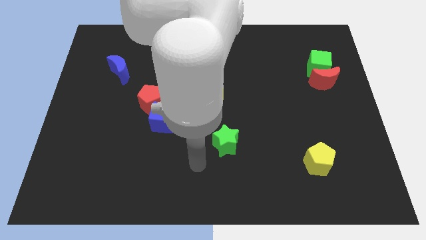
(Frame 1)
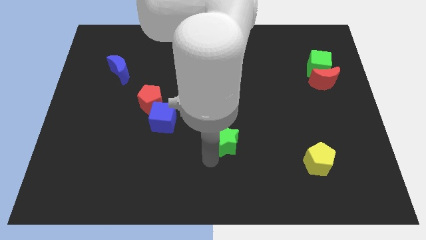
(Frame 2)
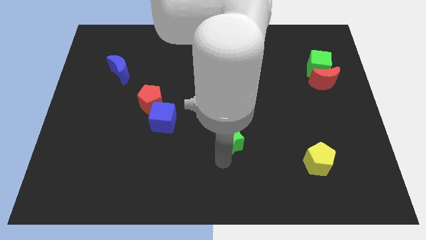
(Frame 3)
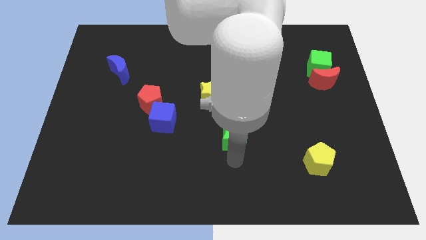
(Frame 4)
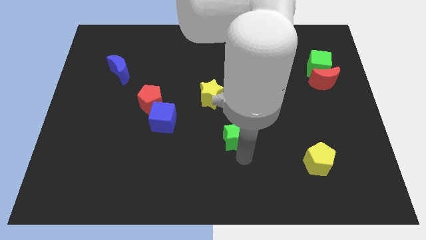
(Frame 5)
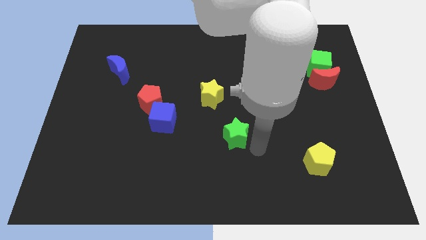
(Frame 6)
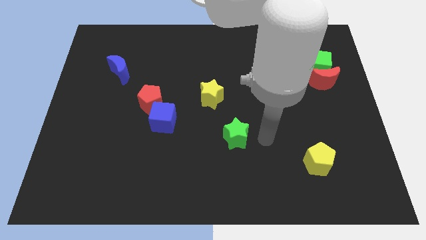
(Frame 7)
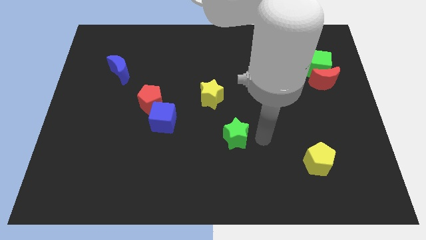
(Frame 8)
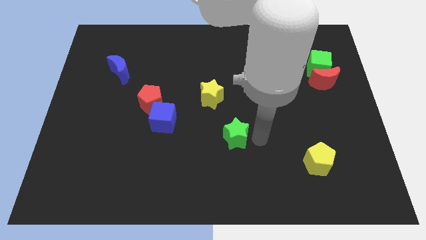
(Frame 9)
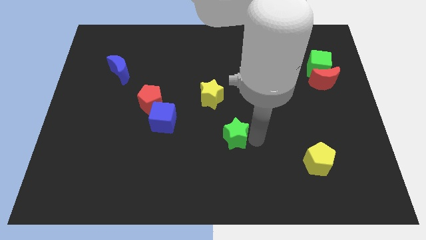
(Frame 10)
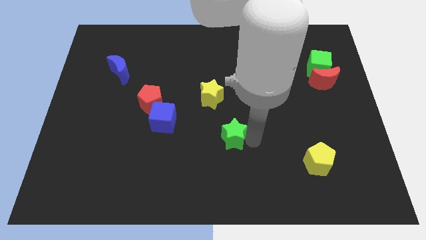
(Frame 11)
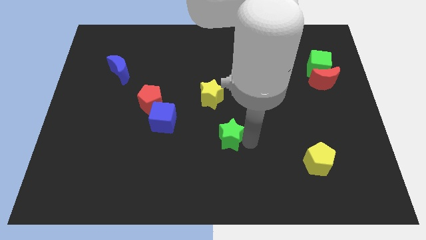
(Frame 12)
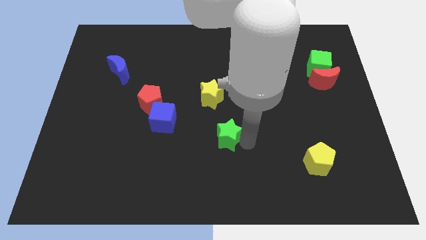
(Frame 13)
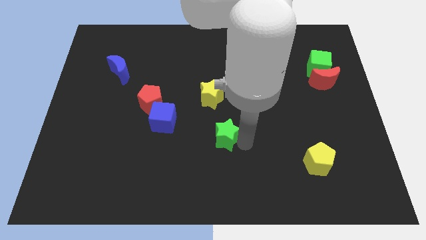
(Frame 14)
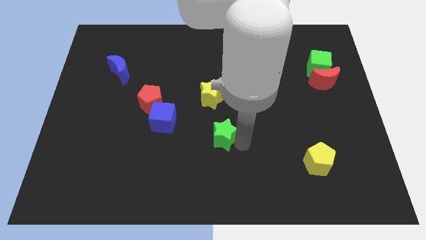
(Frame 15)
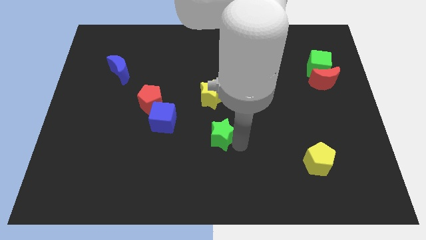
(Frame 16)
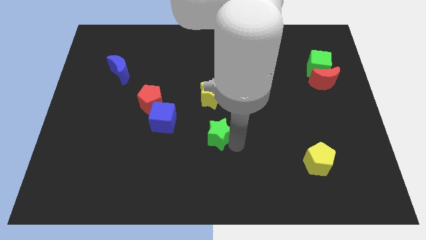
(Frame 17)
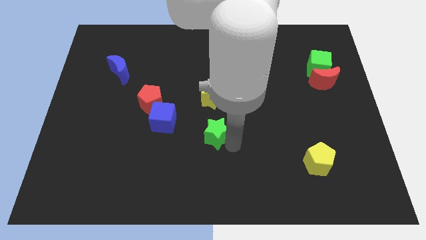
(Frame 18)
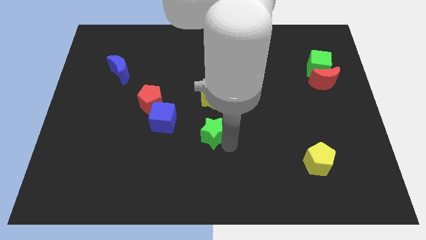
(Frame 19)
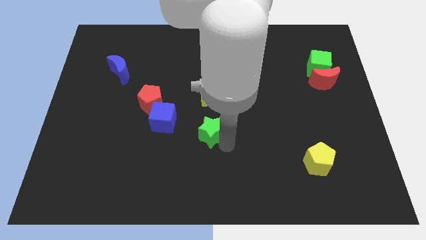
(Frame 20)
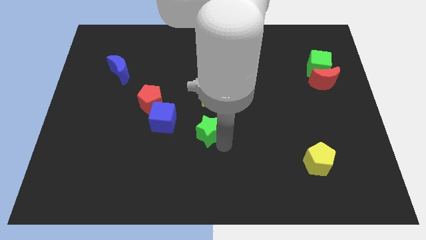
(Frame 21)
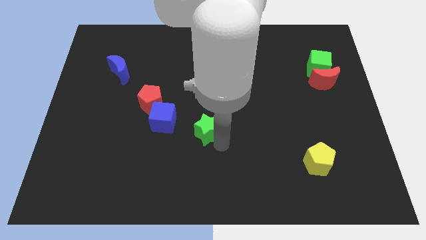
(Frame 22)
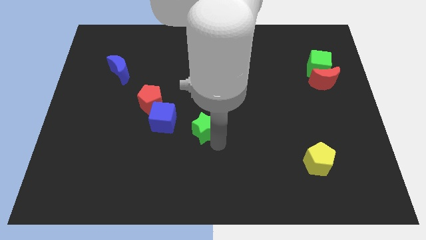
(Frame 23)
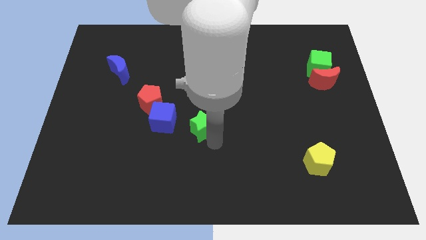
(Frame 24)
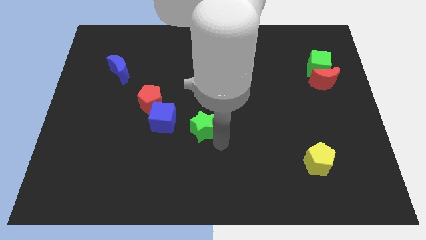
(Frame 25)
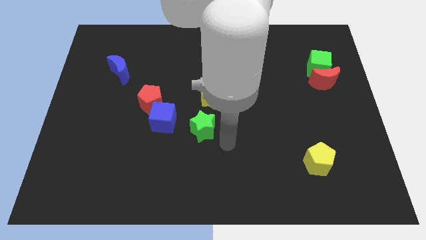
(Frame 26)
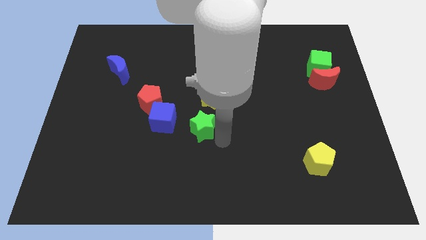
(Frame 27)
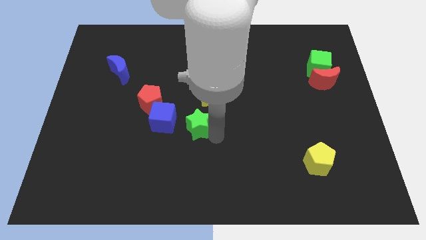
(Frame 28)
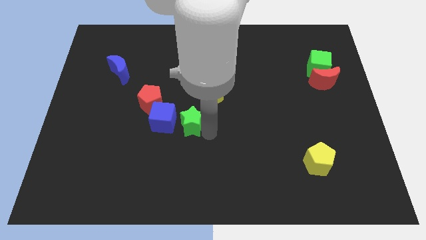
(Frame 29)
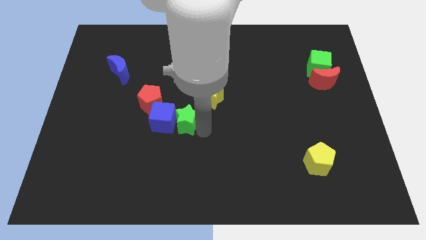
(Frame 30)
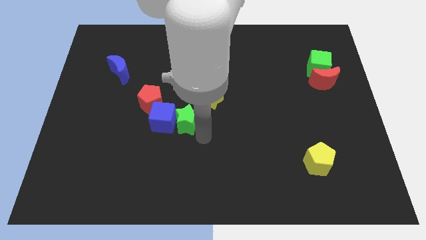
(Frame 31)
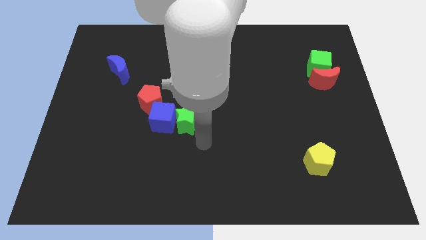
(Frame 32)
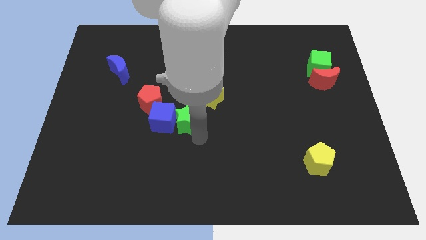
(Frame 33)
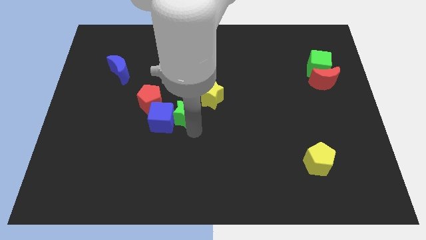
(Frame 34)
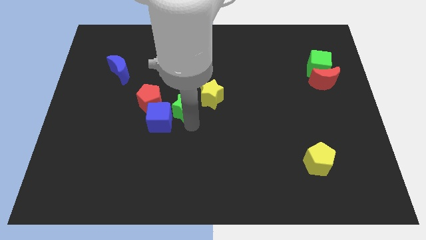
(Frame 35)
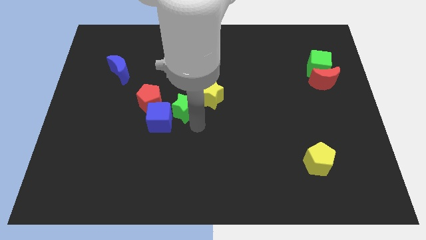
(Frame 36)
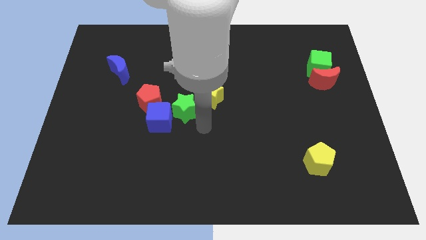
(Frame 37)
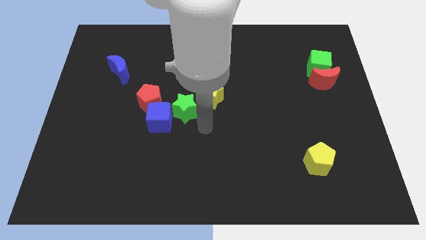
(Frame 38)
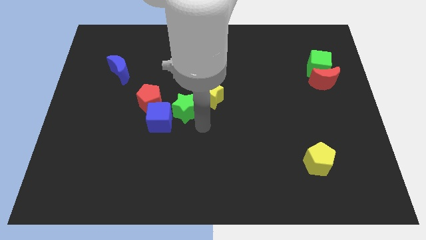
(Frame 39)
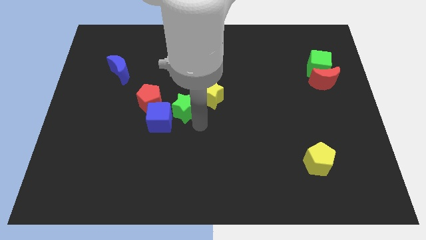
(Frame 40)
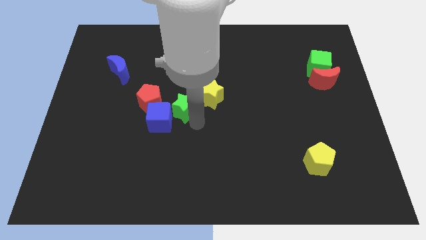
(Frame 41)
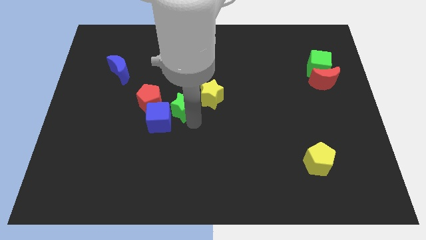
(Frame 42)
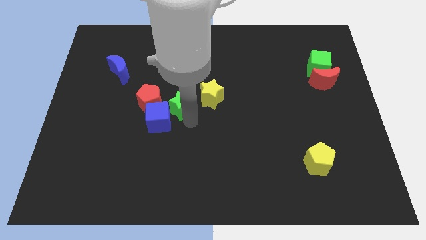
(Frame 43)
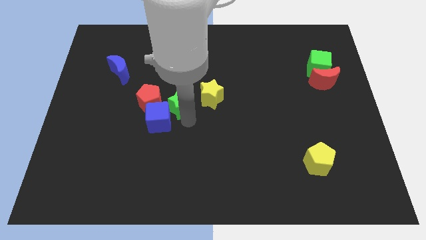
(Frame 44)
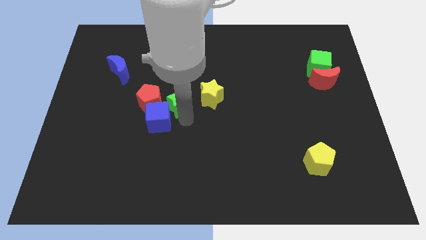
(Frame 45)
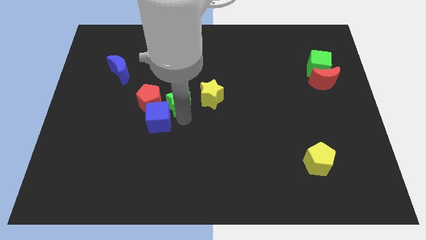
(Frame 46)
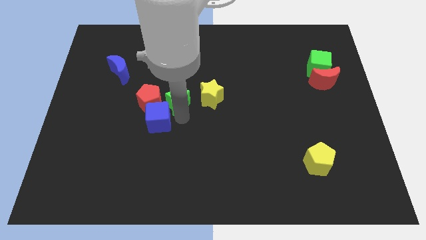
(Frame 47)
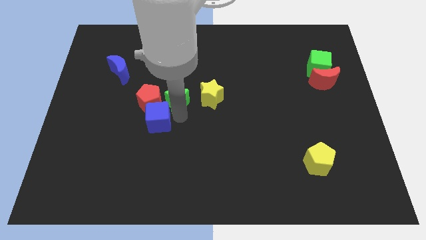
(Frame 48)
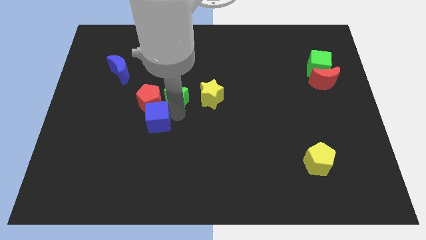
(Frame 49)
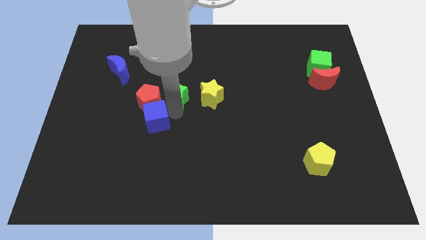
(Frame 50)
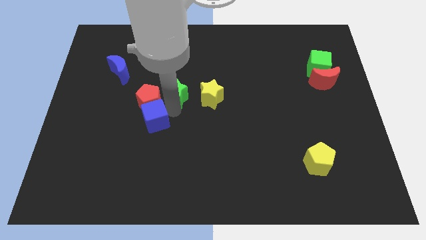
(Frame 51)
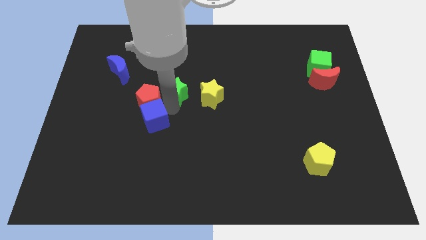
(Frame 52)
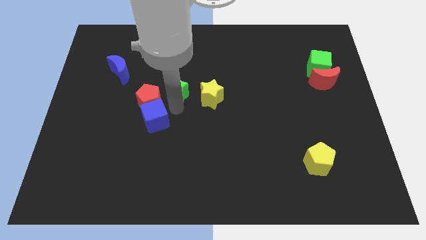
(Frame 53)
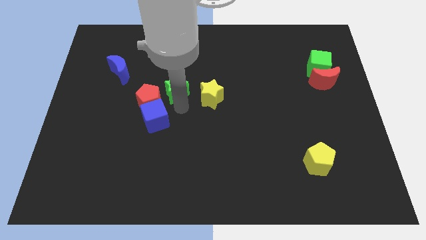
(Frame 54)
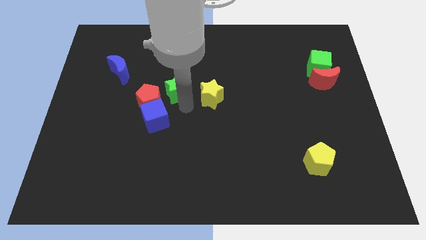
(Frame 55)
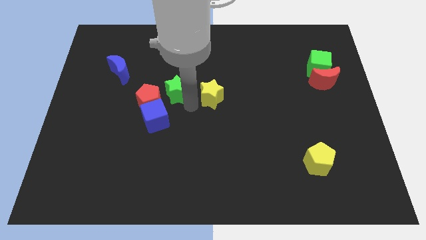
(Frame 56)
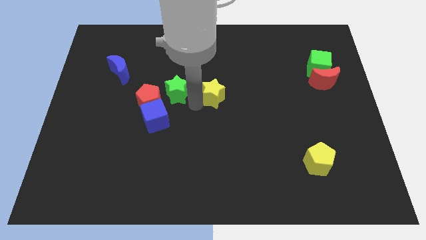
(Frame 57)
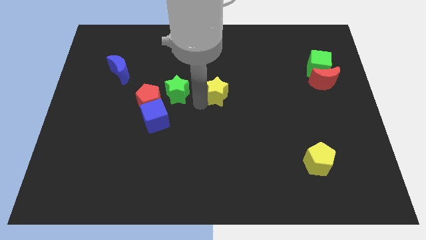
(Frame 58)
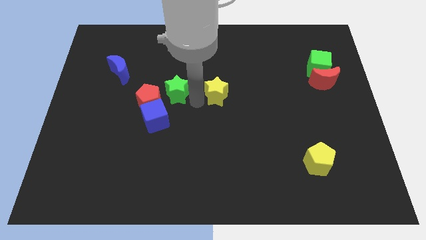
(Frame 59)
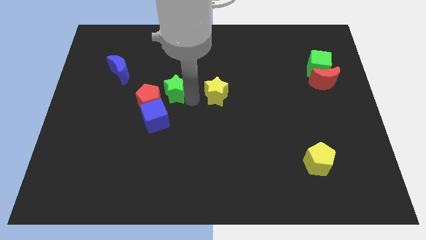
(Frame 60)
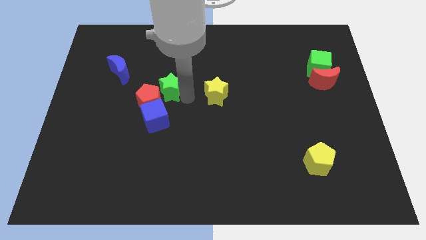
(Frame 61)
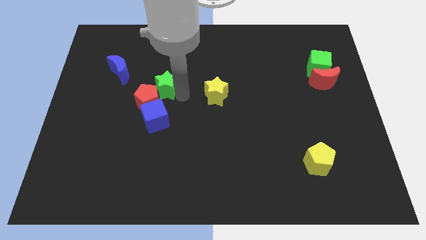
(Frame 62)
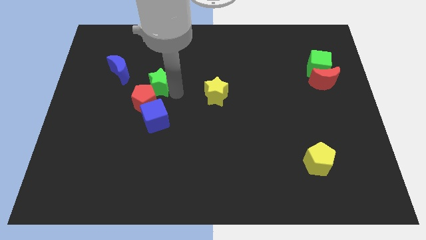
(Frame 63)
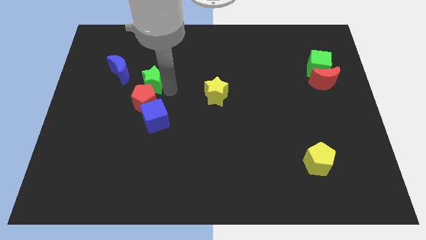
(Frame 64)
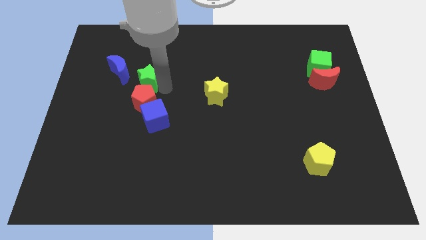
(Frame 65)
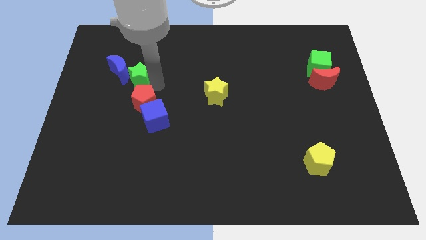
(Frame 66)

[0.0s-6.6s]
put the green star to the blue moon
